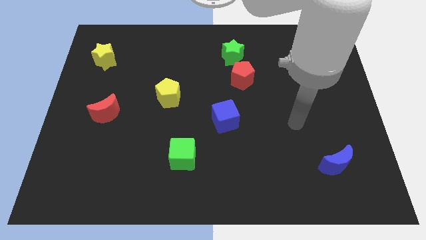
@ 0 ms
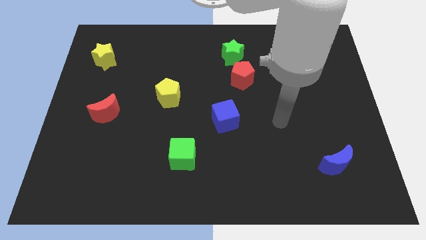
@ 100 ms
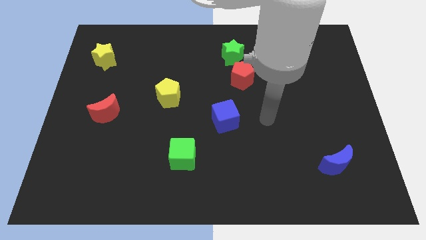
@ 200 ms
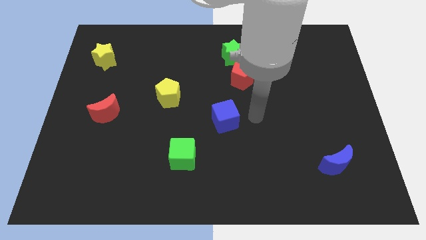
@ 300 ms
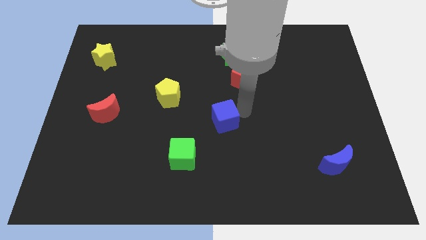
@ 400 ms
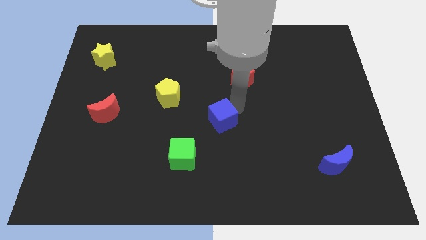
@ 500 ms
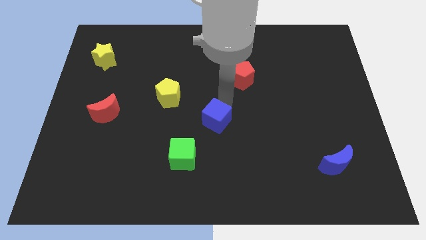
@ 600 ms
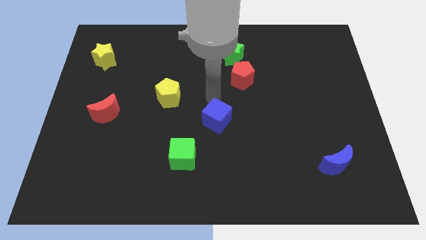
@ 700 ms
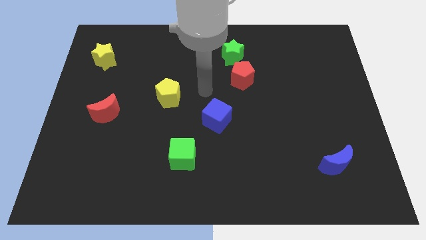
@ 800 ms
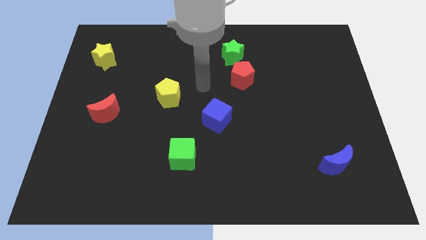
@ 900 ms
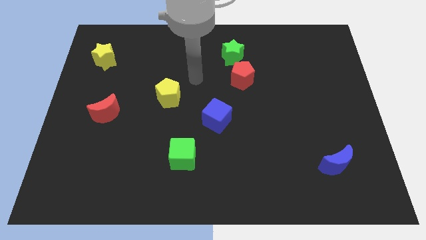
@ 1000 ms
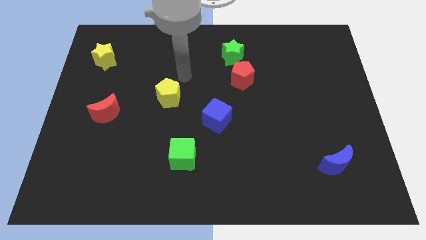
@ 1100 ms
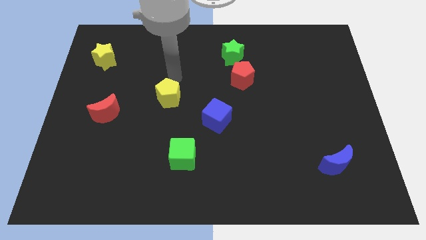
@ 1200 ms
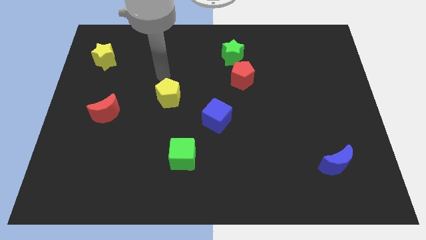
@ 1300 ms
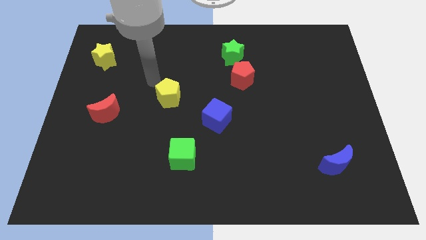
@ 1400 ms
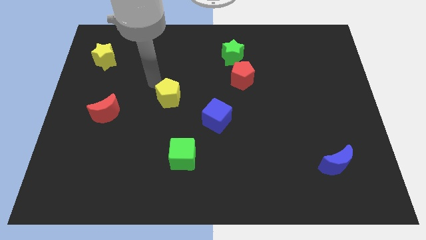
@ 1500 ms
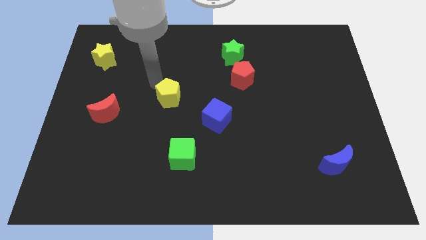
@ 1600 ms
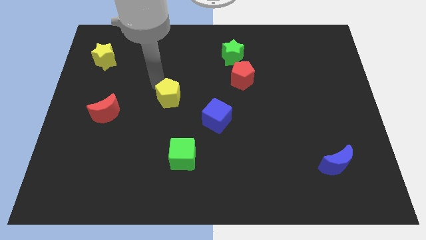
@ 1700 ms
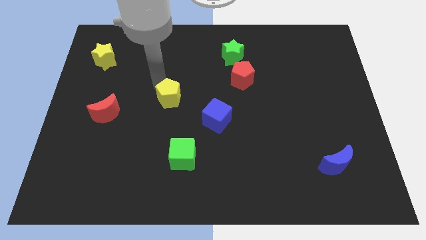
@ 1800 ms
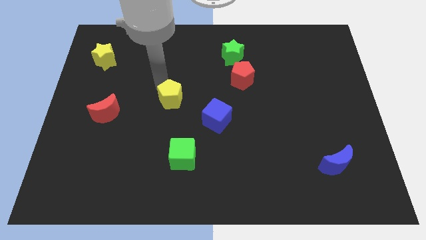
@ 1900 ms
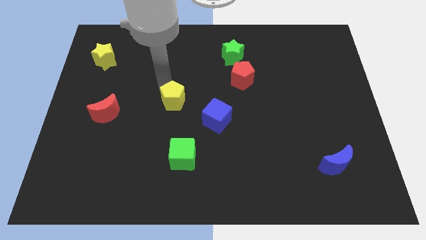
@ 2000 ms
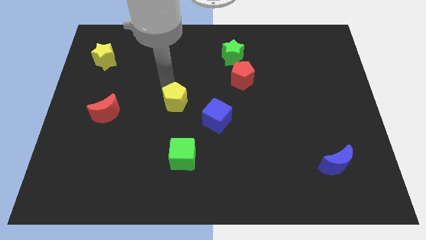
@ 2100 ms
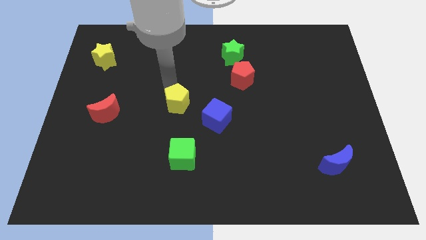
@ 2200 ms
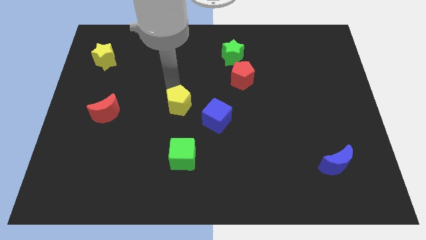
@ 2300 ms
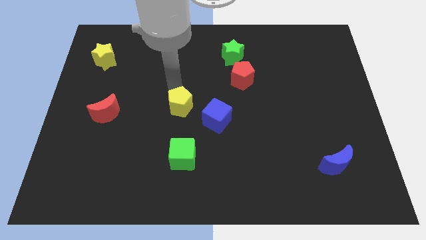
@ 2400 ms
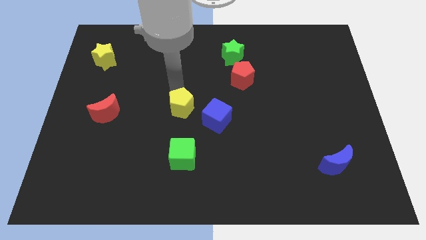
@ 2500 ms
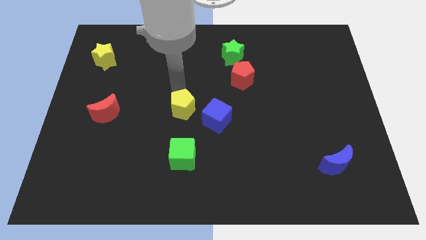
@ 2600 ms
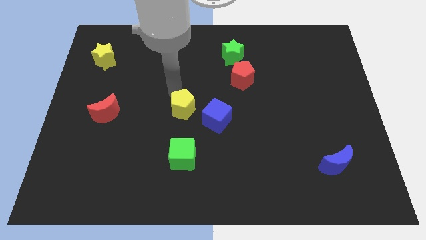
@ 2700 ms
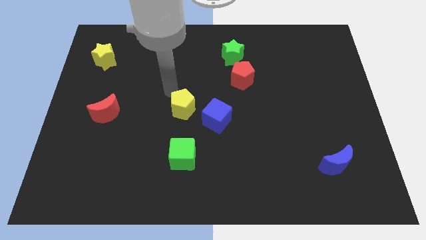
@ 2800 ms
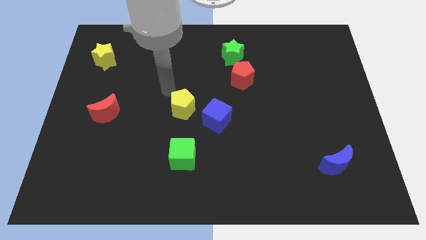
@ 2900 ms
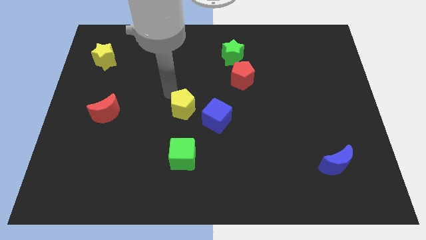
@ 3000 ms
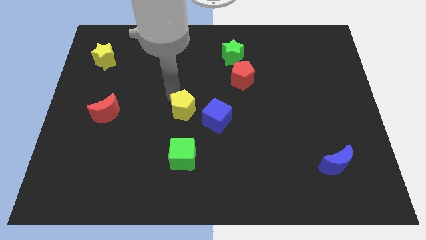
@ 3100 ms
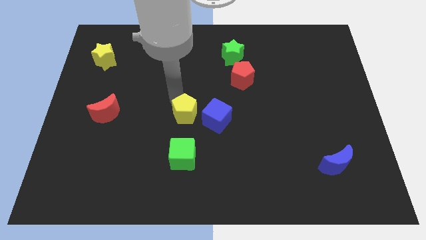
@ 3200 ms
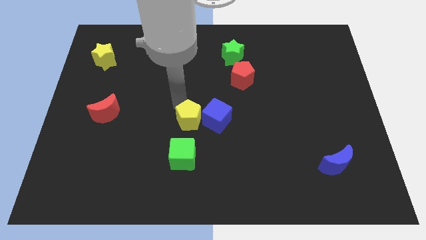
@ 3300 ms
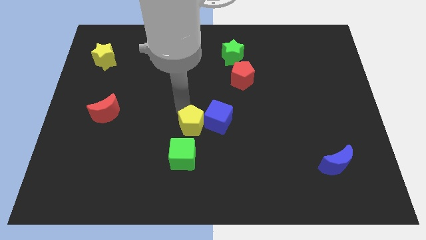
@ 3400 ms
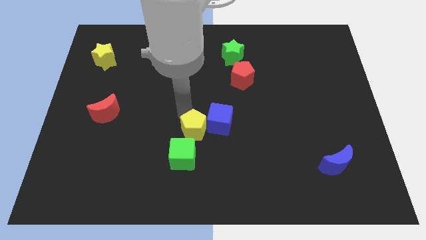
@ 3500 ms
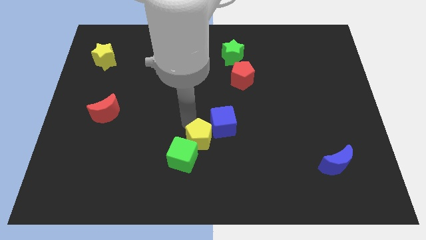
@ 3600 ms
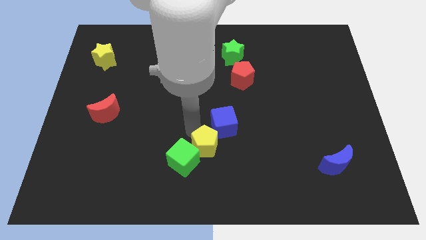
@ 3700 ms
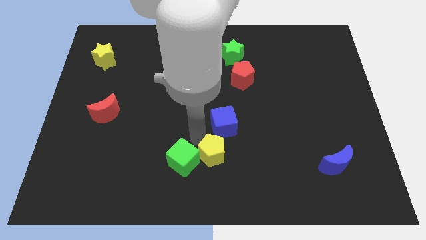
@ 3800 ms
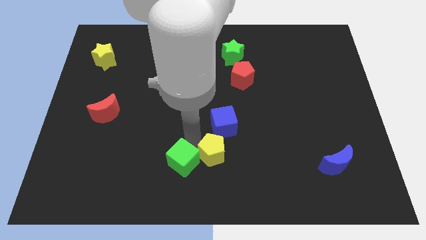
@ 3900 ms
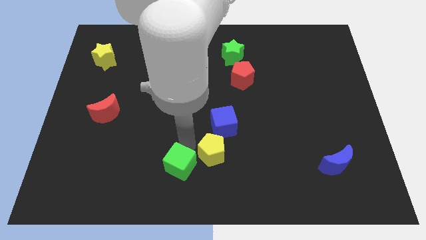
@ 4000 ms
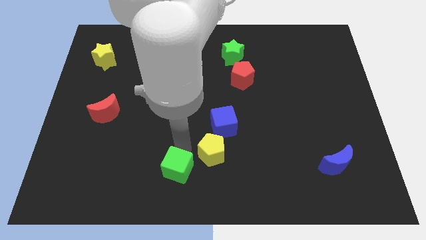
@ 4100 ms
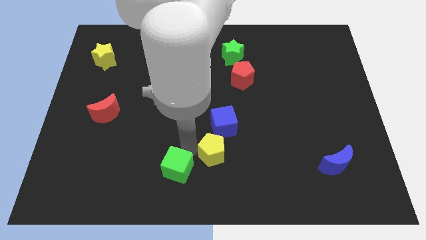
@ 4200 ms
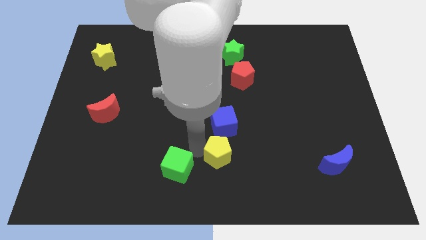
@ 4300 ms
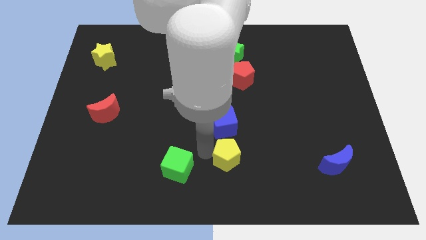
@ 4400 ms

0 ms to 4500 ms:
move the yellow pentagon diagonally downwards and right

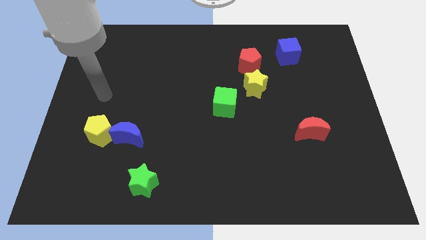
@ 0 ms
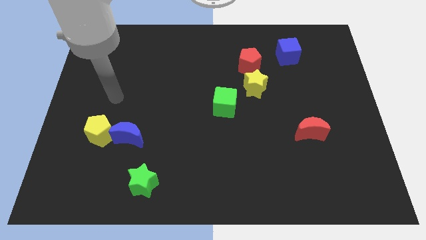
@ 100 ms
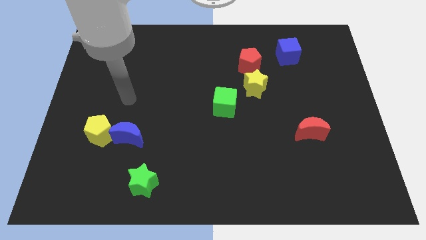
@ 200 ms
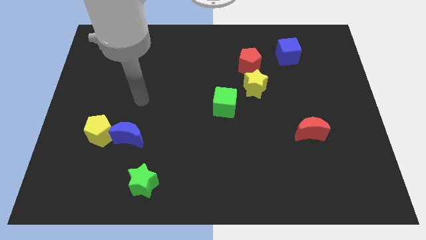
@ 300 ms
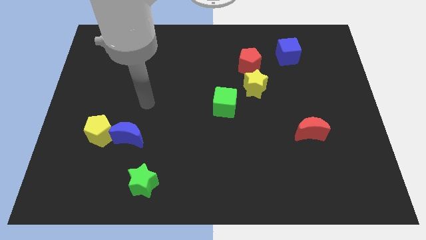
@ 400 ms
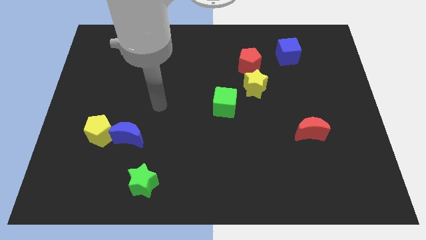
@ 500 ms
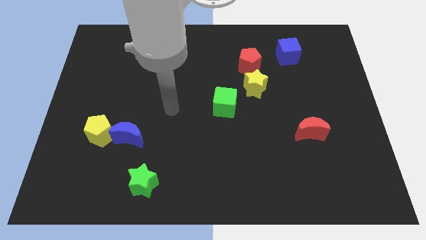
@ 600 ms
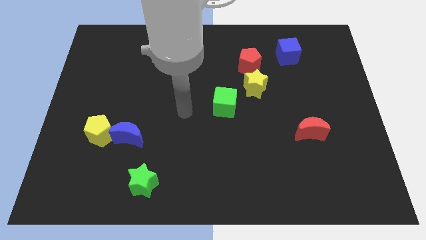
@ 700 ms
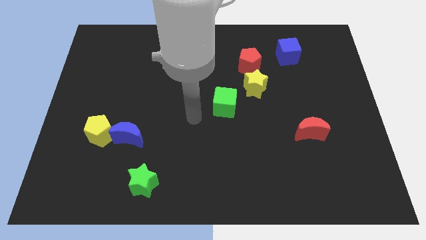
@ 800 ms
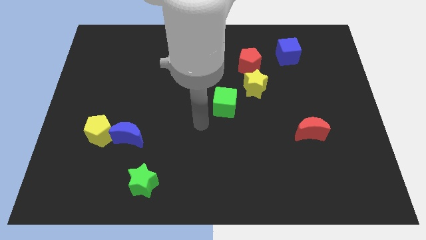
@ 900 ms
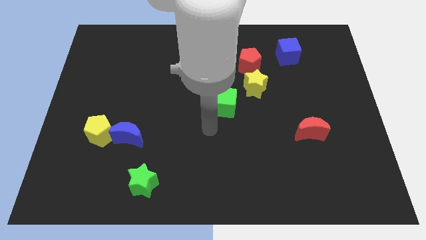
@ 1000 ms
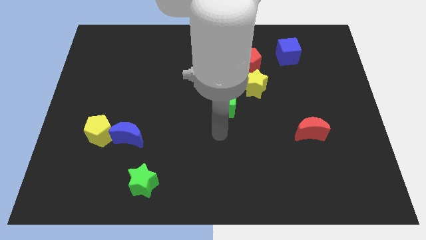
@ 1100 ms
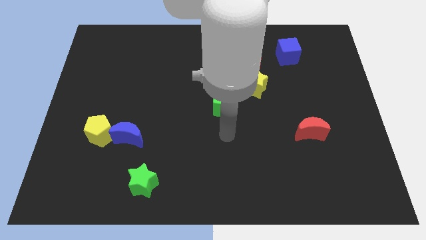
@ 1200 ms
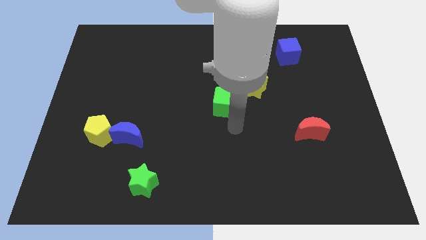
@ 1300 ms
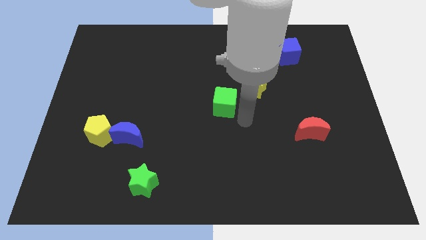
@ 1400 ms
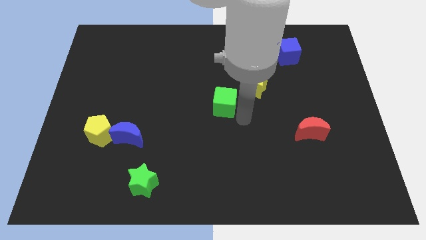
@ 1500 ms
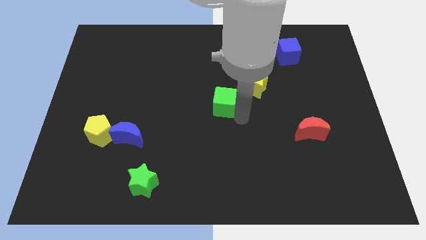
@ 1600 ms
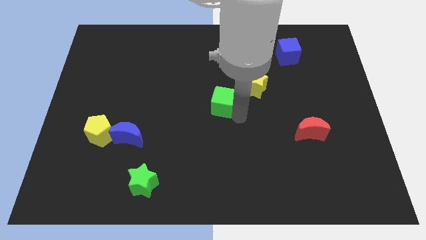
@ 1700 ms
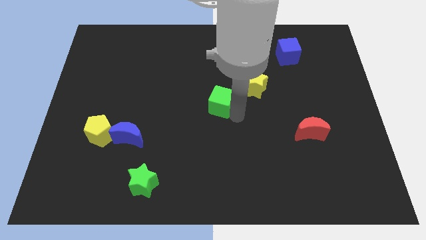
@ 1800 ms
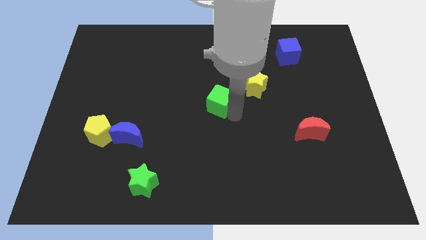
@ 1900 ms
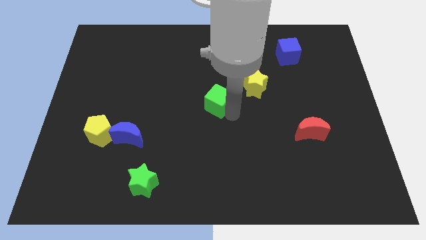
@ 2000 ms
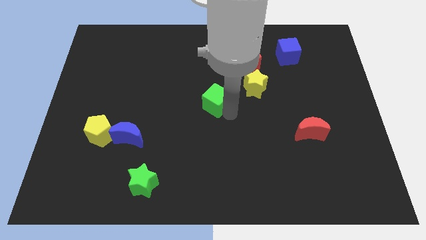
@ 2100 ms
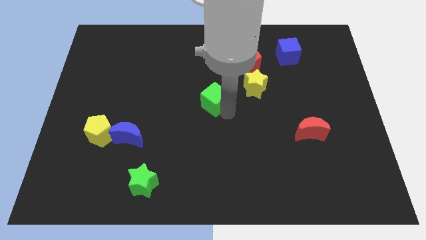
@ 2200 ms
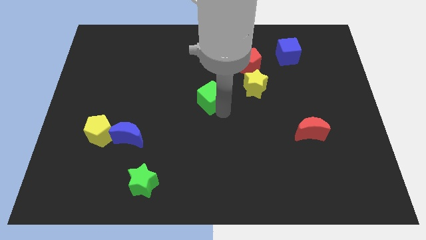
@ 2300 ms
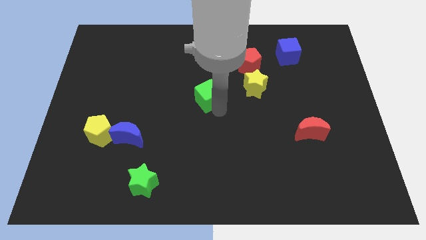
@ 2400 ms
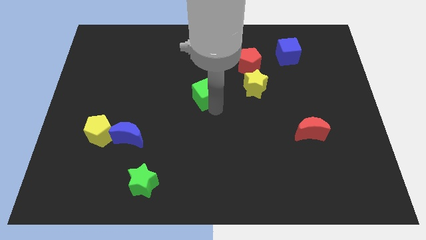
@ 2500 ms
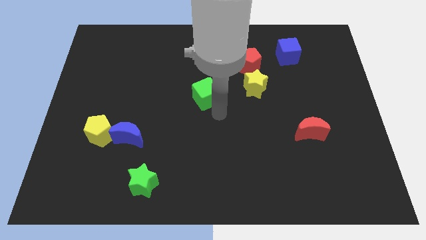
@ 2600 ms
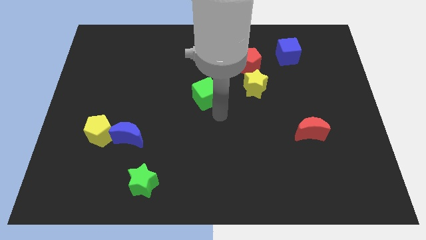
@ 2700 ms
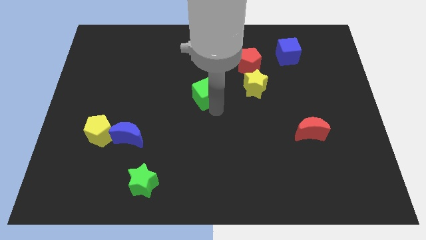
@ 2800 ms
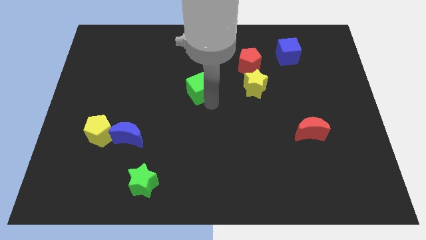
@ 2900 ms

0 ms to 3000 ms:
slide the green cube up and to the left a little bit

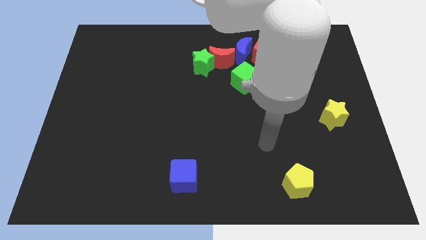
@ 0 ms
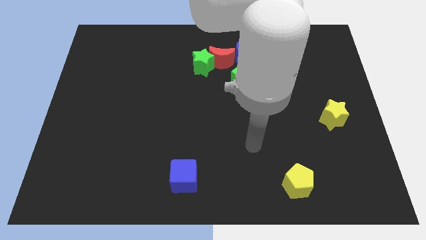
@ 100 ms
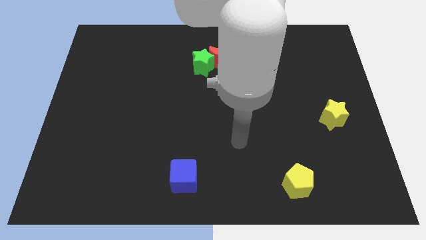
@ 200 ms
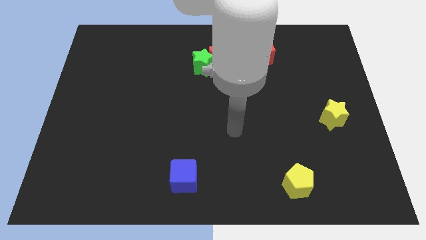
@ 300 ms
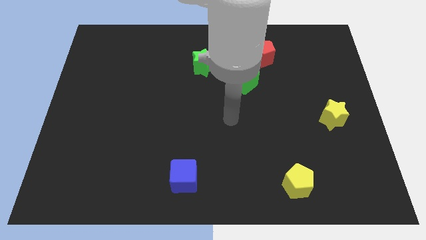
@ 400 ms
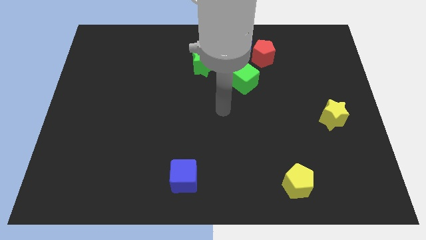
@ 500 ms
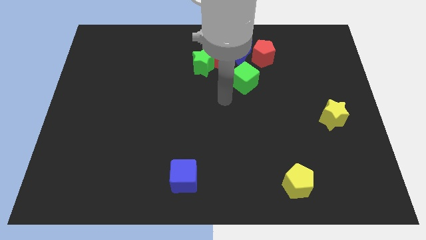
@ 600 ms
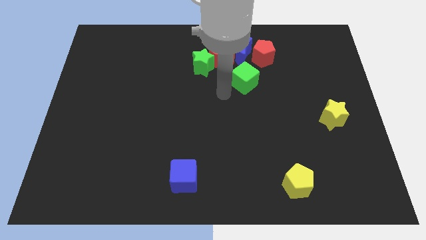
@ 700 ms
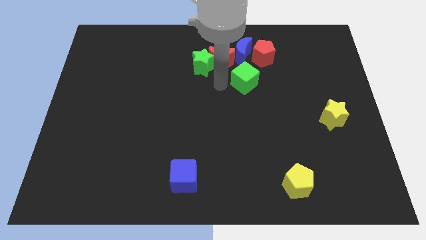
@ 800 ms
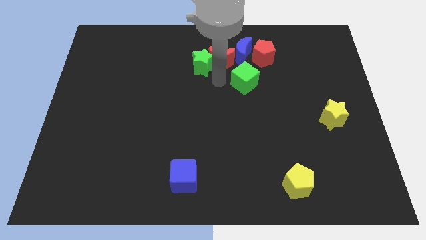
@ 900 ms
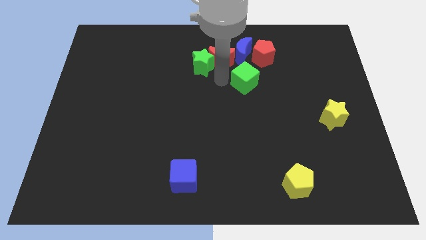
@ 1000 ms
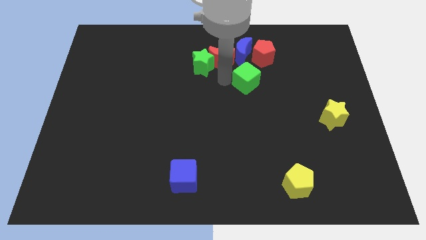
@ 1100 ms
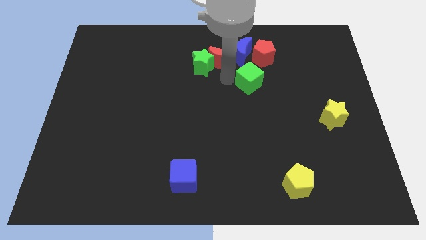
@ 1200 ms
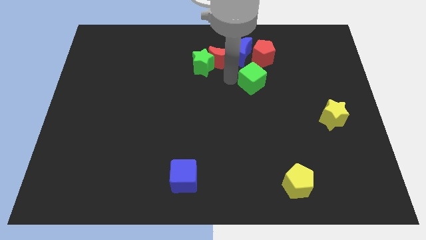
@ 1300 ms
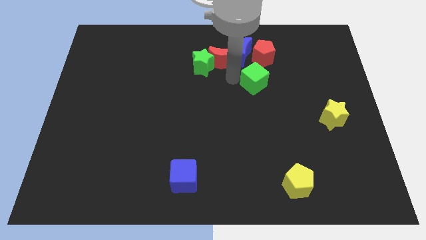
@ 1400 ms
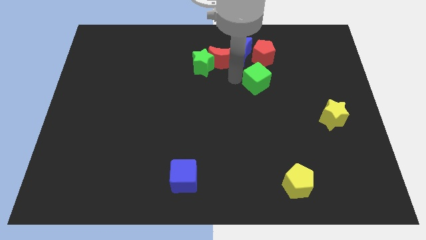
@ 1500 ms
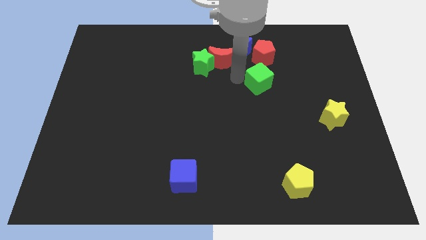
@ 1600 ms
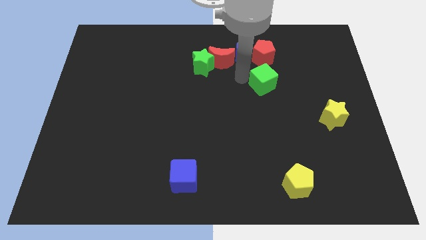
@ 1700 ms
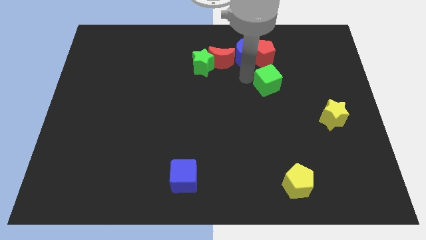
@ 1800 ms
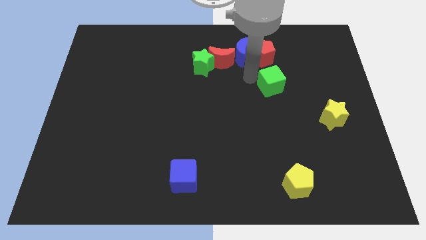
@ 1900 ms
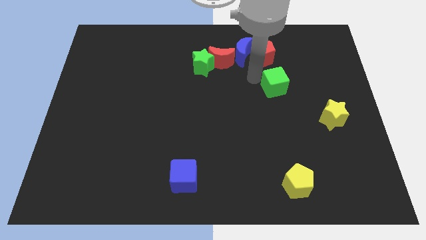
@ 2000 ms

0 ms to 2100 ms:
slightly move the green cube right
